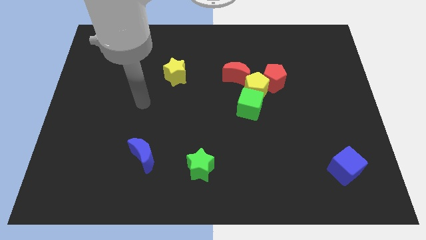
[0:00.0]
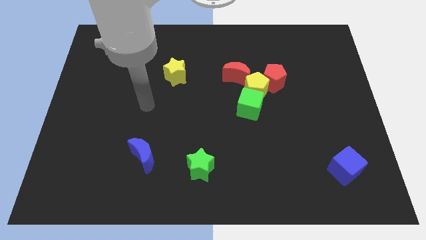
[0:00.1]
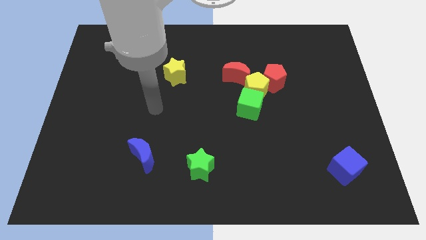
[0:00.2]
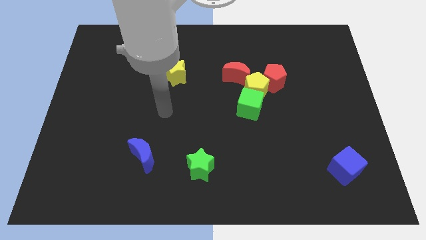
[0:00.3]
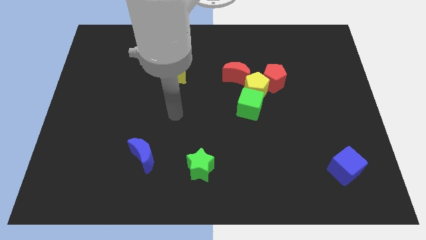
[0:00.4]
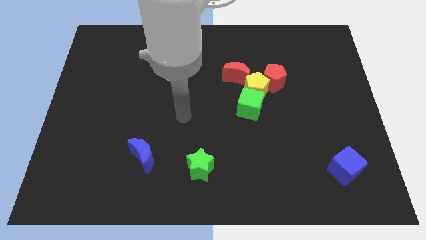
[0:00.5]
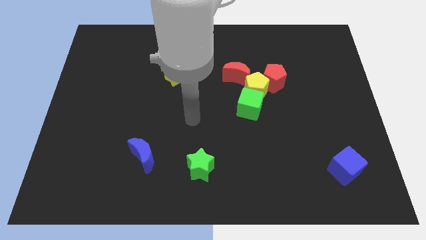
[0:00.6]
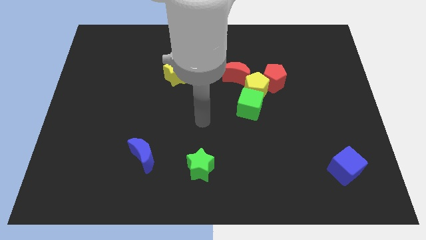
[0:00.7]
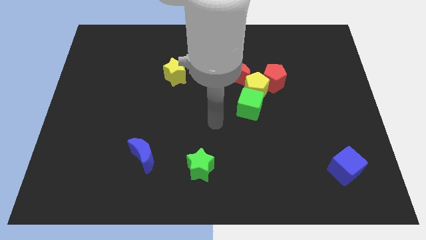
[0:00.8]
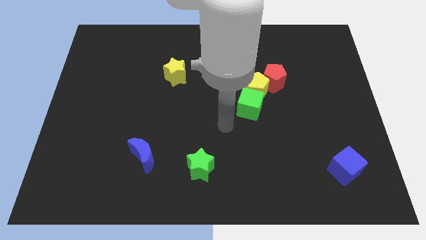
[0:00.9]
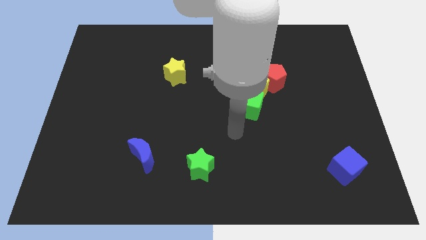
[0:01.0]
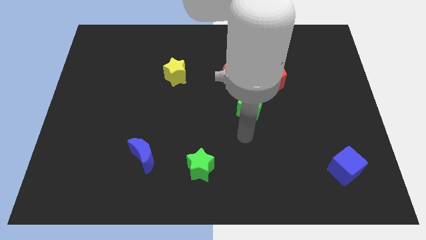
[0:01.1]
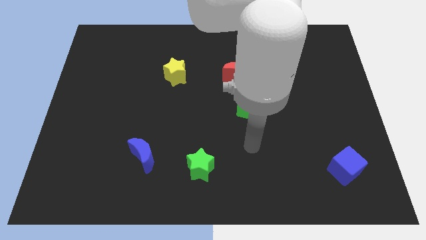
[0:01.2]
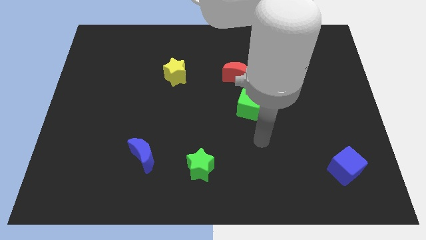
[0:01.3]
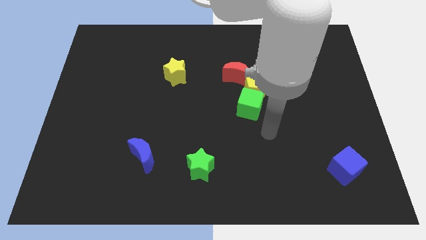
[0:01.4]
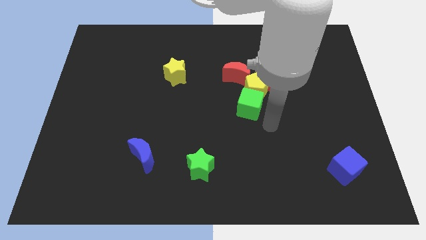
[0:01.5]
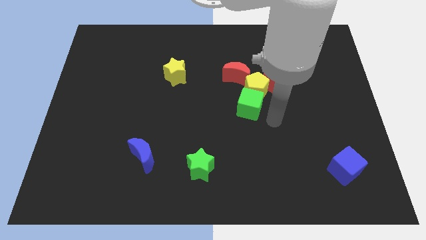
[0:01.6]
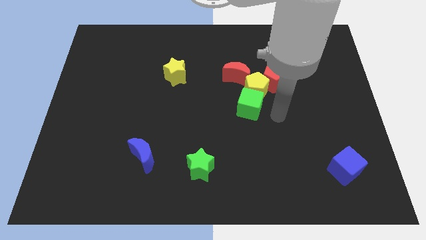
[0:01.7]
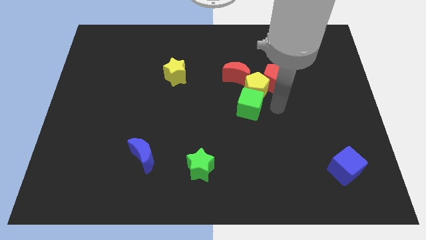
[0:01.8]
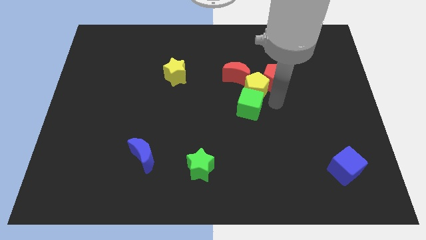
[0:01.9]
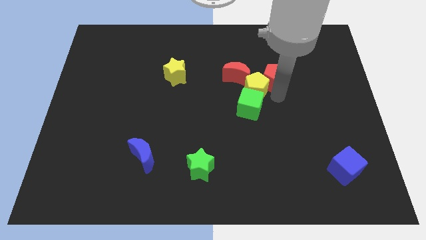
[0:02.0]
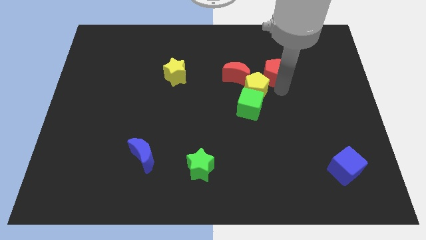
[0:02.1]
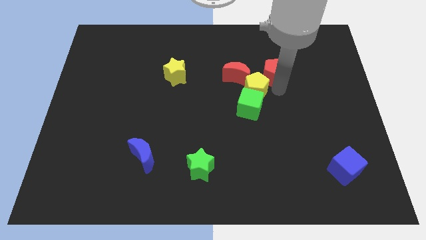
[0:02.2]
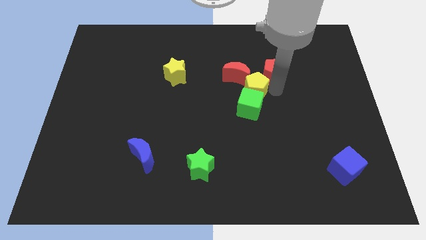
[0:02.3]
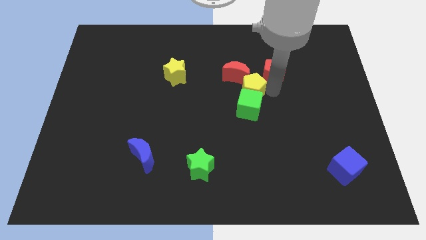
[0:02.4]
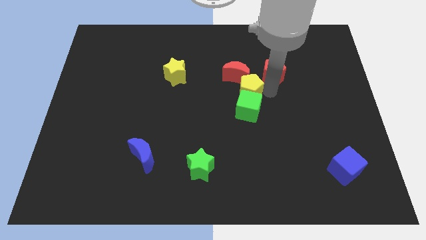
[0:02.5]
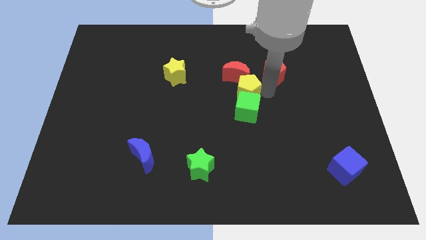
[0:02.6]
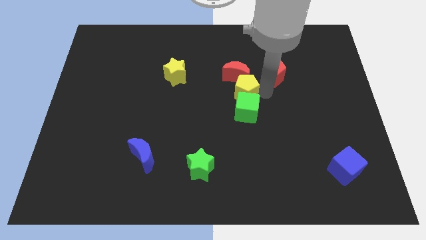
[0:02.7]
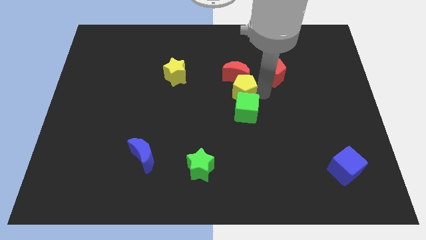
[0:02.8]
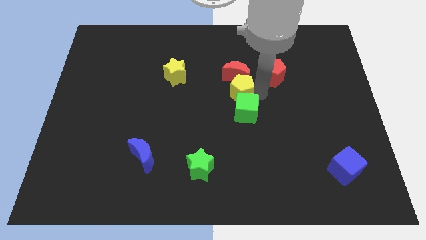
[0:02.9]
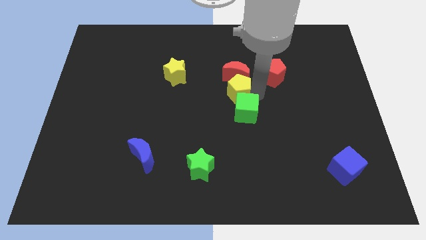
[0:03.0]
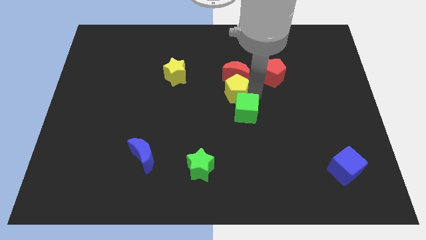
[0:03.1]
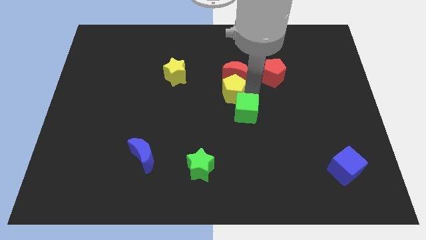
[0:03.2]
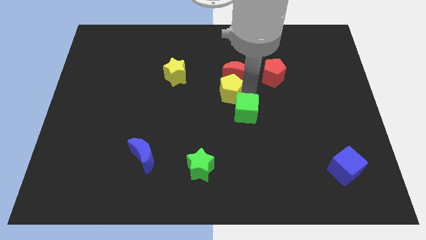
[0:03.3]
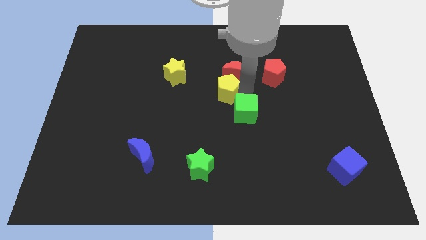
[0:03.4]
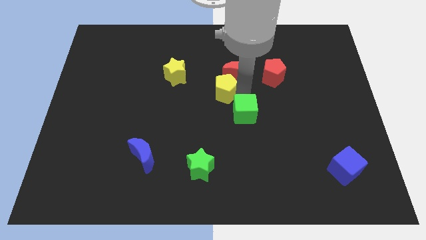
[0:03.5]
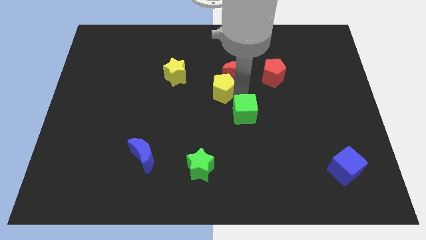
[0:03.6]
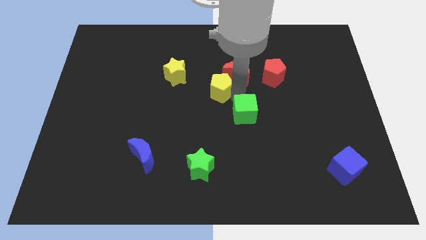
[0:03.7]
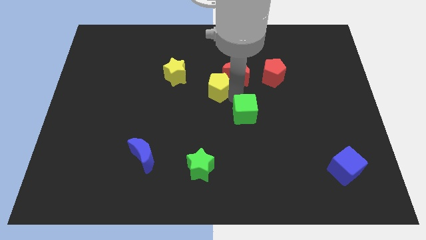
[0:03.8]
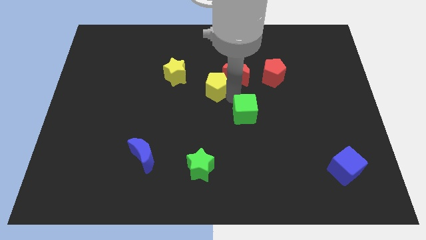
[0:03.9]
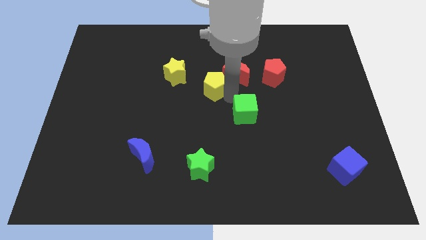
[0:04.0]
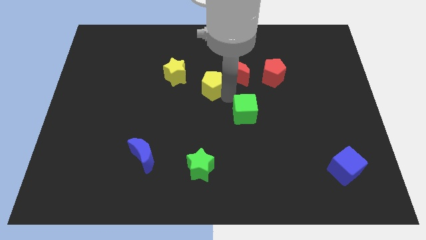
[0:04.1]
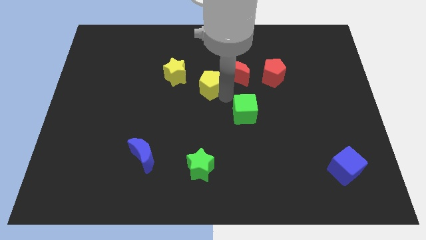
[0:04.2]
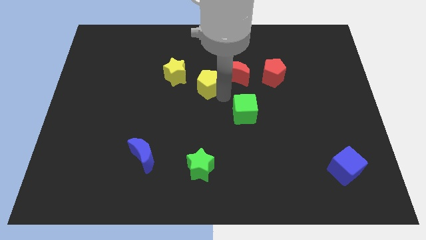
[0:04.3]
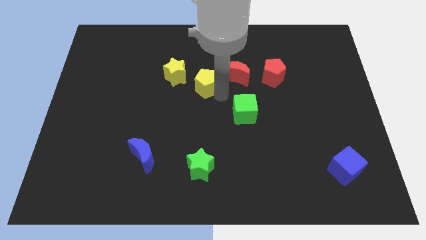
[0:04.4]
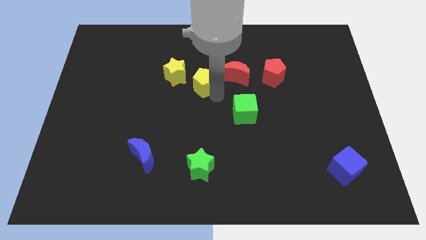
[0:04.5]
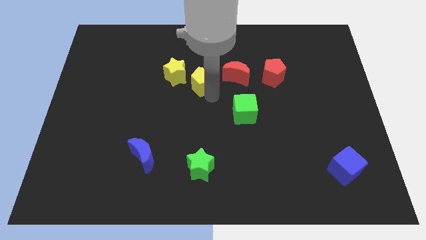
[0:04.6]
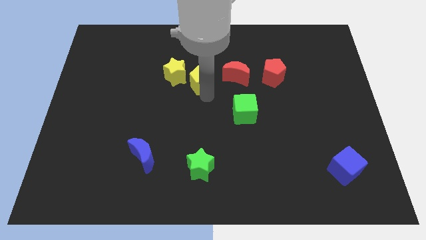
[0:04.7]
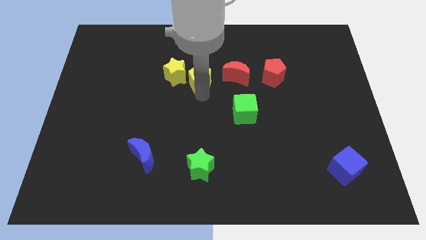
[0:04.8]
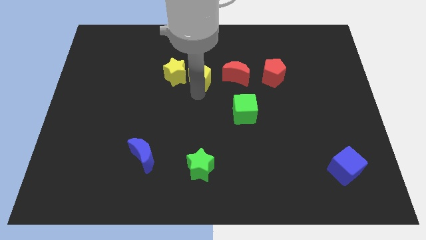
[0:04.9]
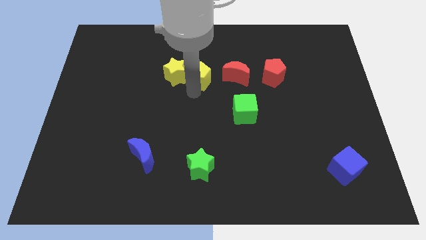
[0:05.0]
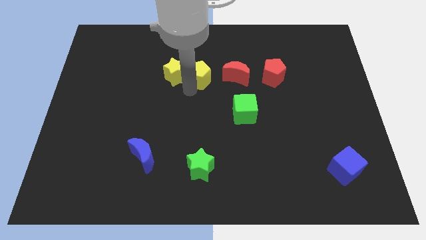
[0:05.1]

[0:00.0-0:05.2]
slide the yellow pentagon diagonally up and to the right of the yellow star

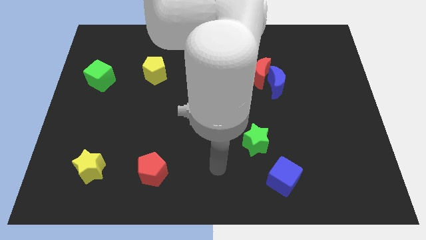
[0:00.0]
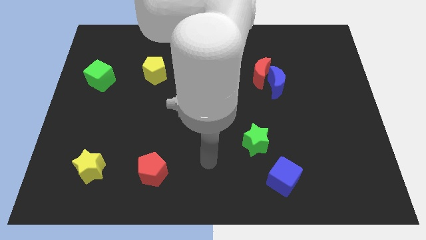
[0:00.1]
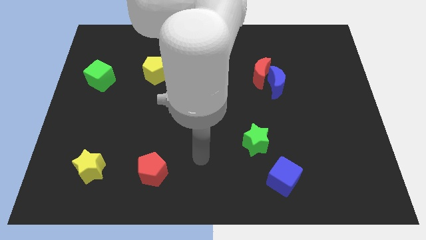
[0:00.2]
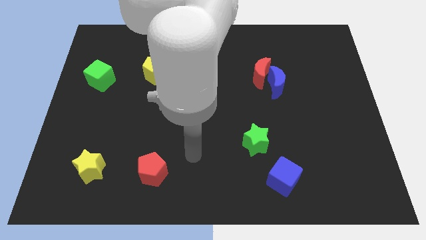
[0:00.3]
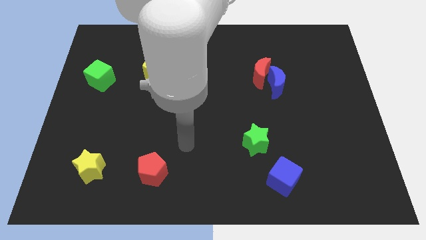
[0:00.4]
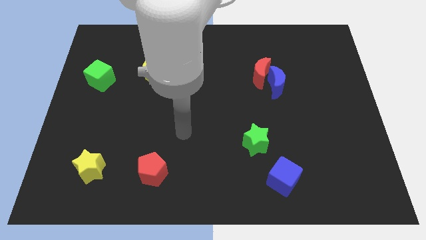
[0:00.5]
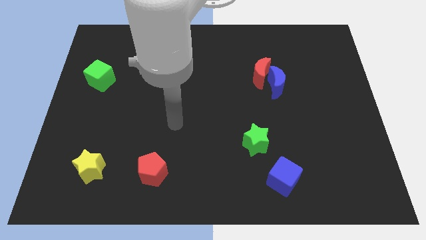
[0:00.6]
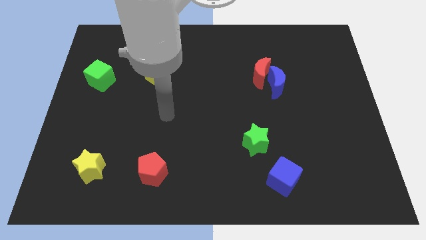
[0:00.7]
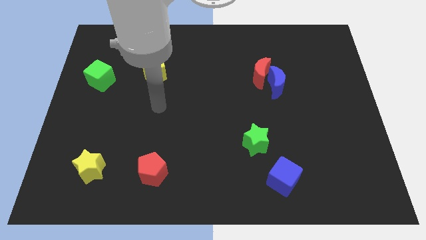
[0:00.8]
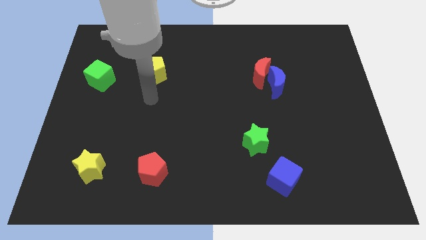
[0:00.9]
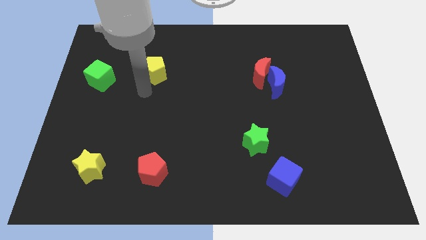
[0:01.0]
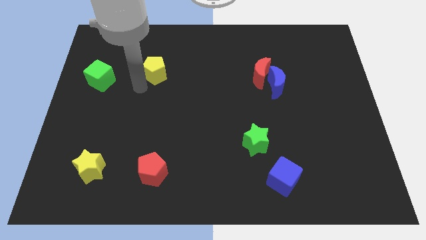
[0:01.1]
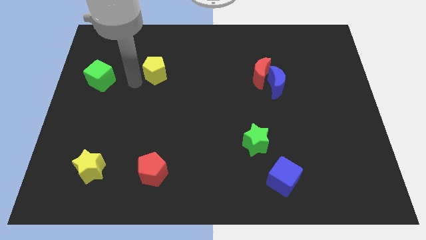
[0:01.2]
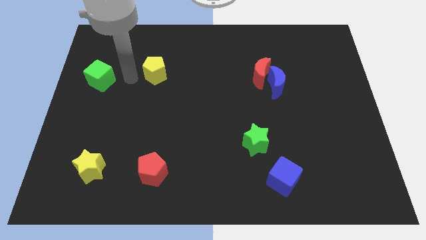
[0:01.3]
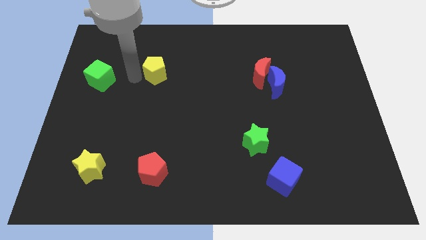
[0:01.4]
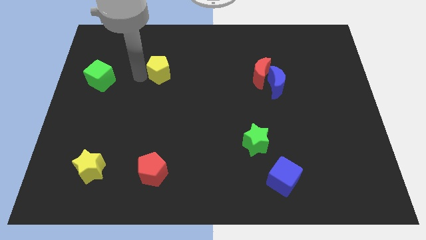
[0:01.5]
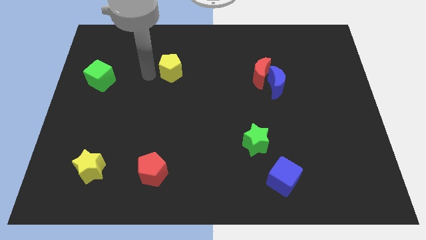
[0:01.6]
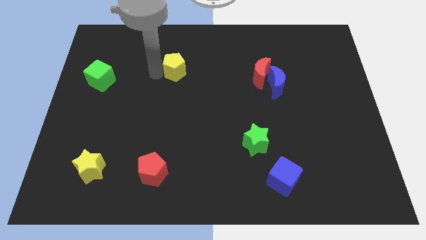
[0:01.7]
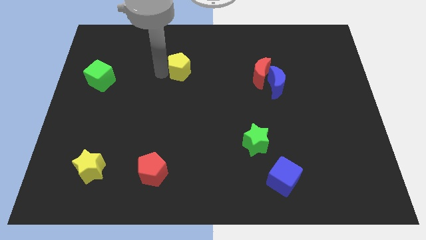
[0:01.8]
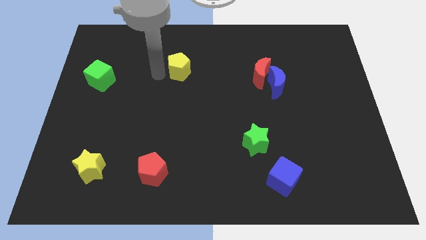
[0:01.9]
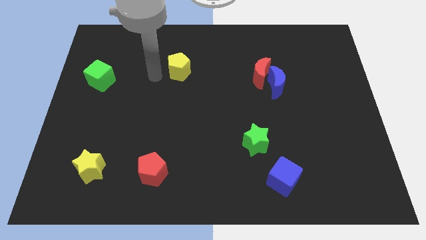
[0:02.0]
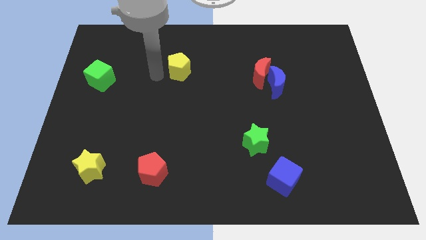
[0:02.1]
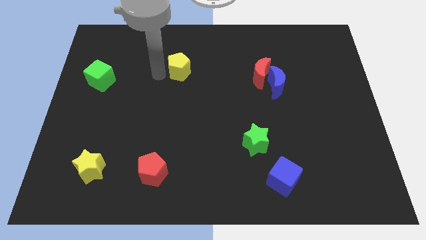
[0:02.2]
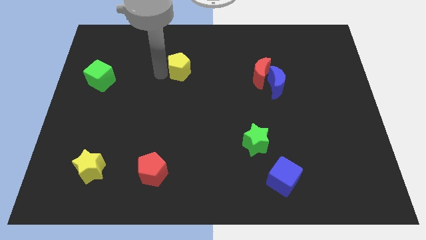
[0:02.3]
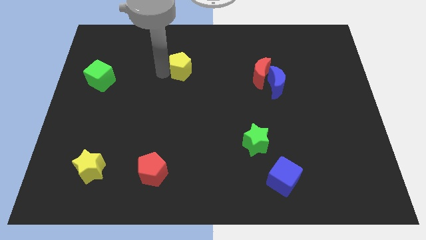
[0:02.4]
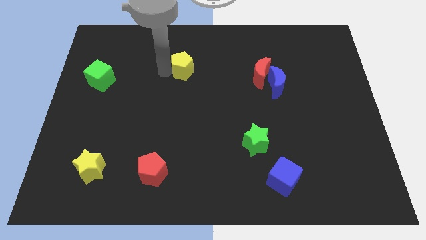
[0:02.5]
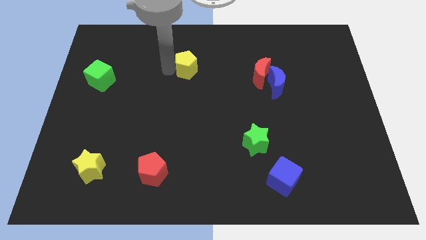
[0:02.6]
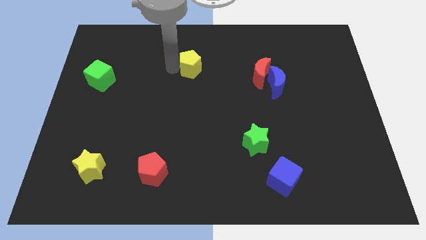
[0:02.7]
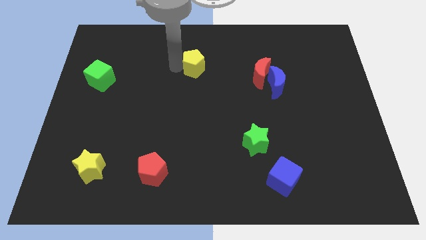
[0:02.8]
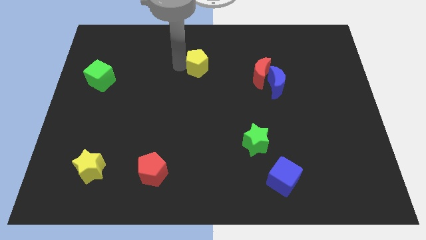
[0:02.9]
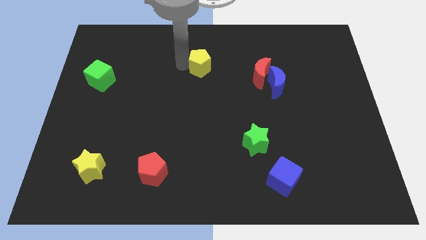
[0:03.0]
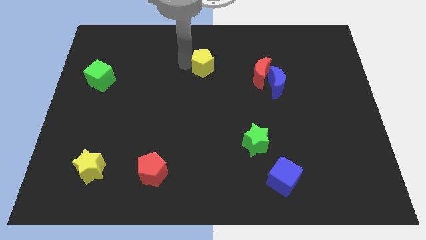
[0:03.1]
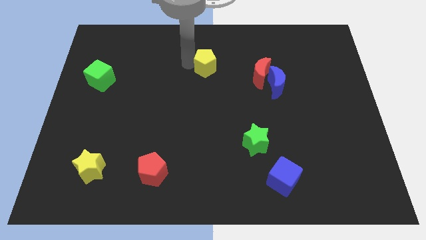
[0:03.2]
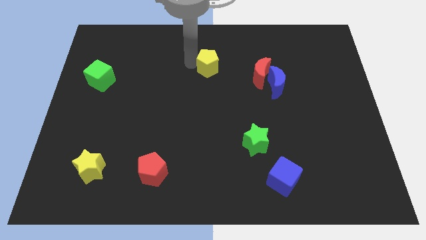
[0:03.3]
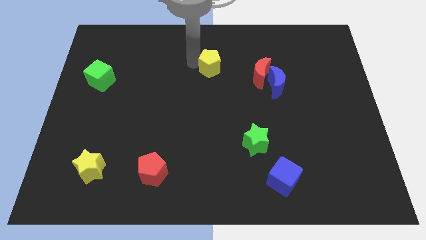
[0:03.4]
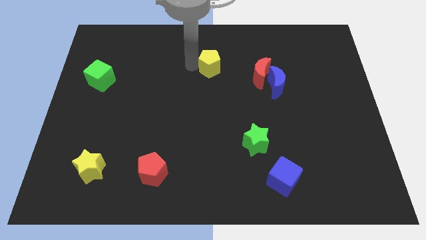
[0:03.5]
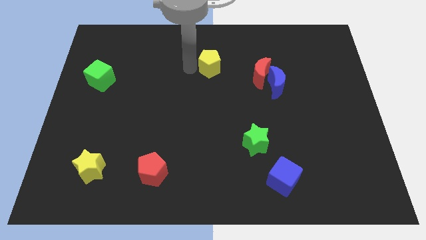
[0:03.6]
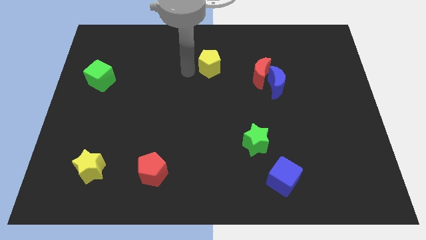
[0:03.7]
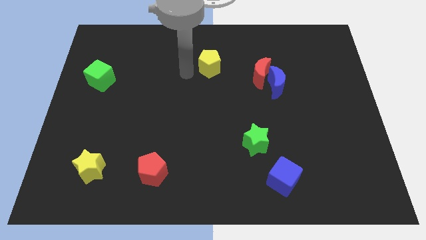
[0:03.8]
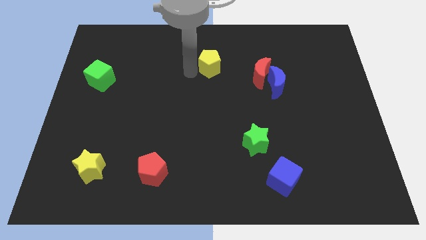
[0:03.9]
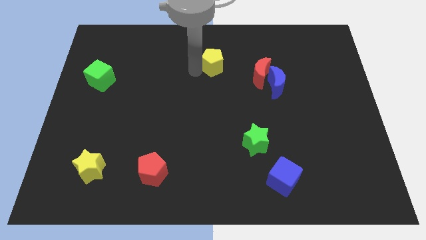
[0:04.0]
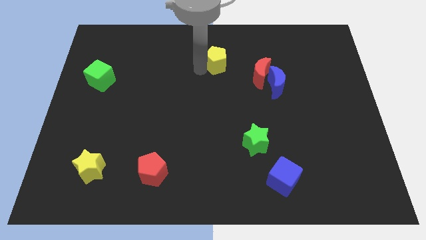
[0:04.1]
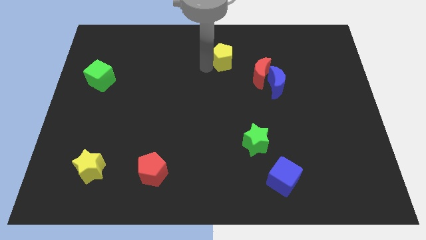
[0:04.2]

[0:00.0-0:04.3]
put the yellow pentagon diagonally up and to the left of the red moon
